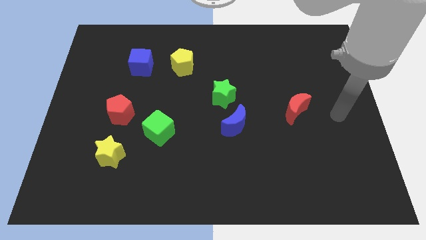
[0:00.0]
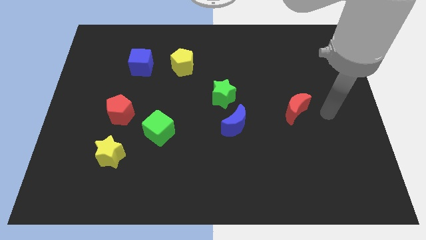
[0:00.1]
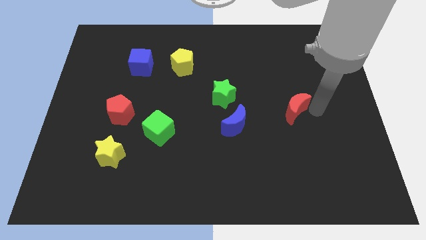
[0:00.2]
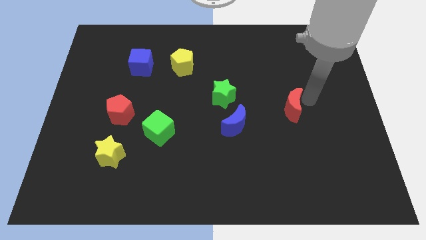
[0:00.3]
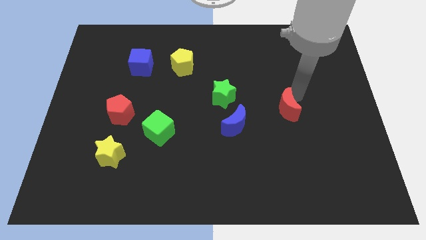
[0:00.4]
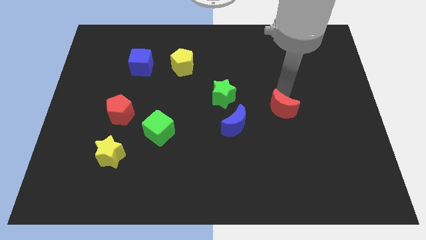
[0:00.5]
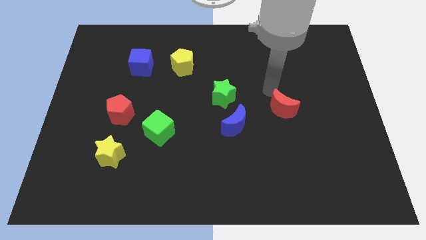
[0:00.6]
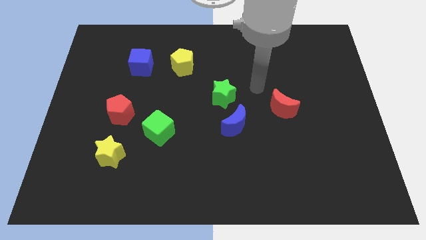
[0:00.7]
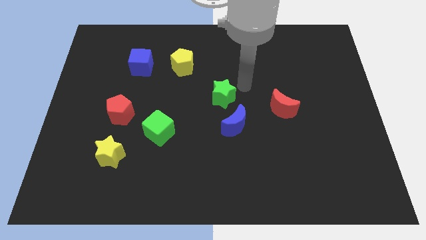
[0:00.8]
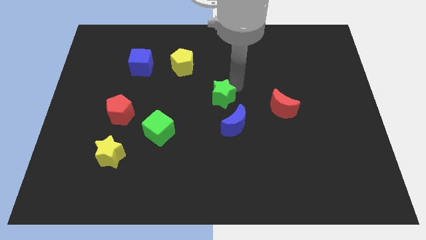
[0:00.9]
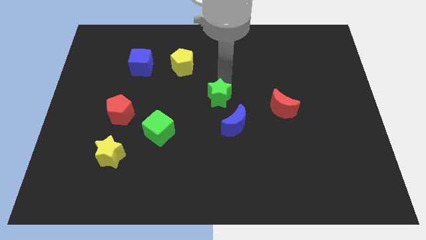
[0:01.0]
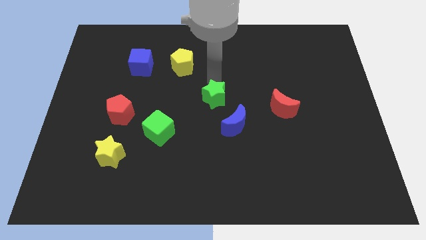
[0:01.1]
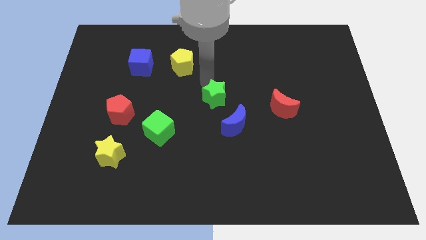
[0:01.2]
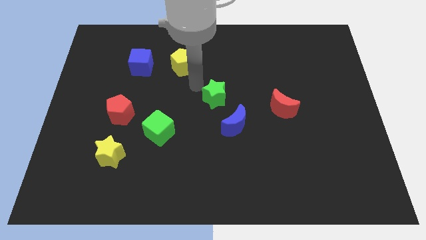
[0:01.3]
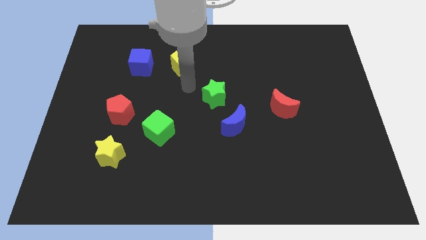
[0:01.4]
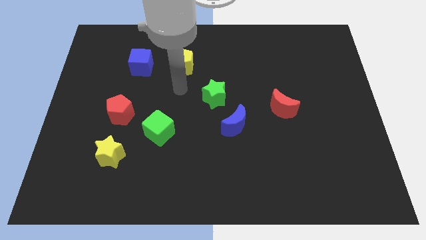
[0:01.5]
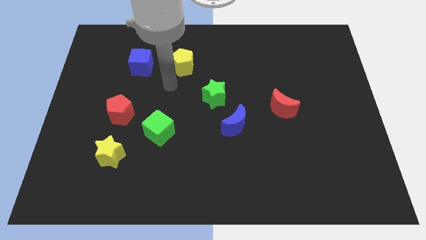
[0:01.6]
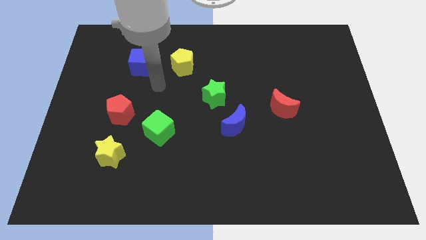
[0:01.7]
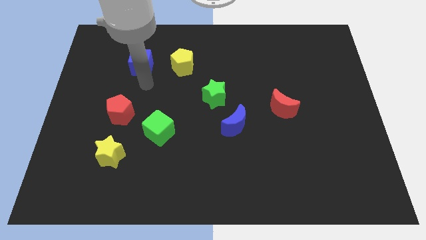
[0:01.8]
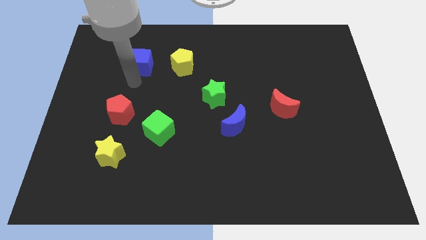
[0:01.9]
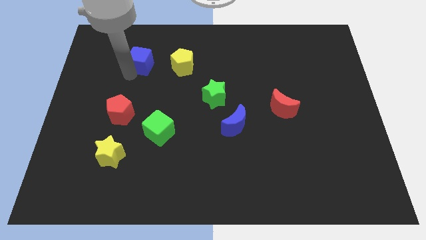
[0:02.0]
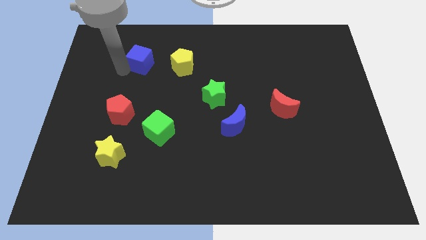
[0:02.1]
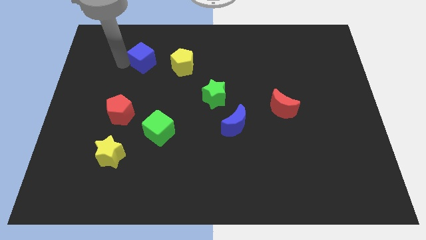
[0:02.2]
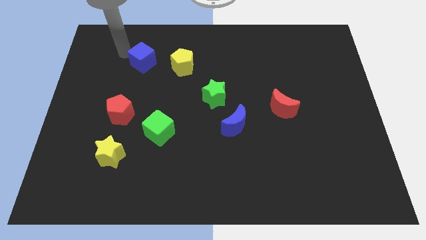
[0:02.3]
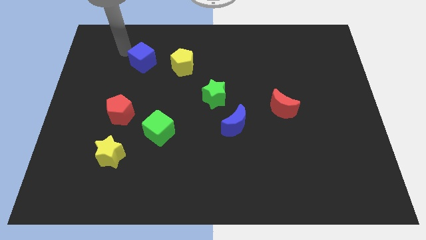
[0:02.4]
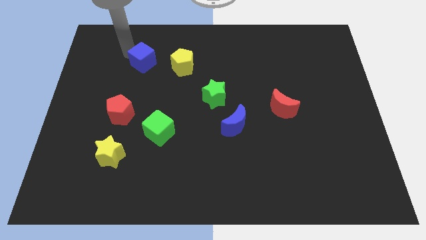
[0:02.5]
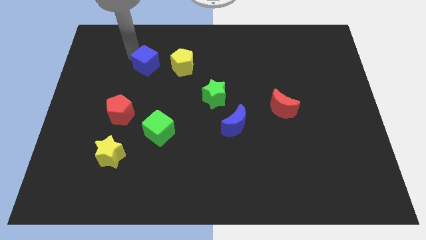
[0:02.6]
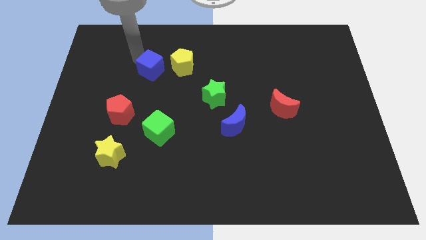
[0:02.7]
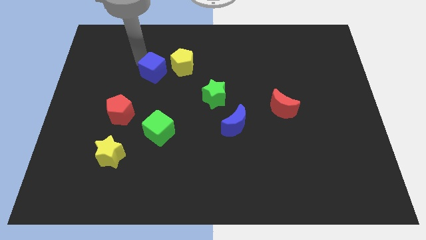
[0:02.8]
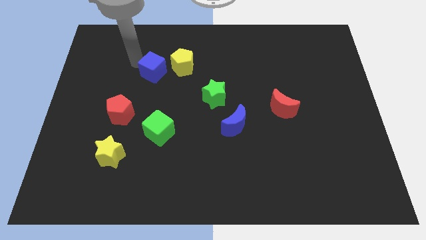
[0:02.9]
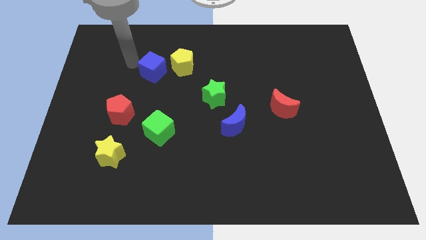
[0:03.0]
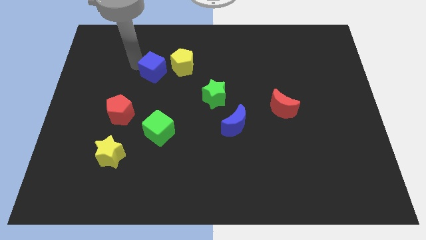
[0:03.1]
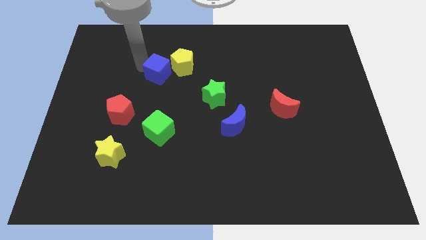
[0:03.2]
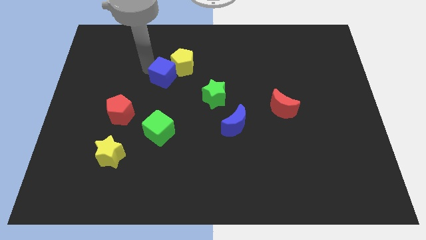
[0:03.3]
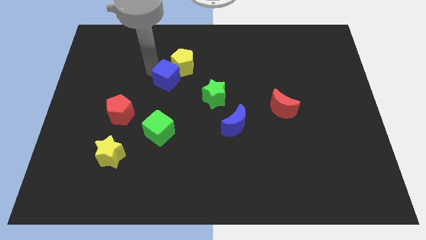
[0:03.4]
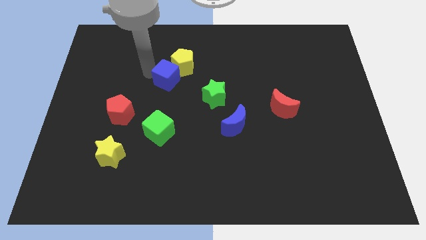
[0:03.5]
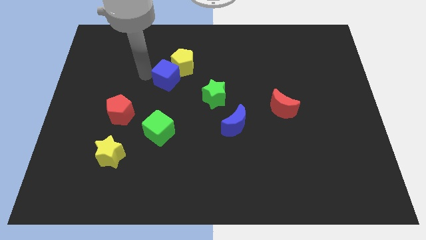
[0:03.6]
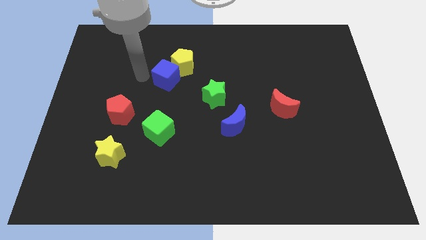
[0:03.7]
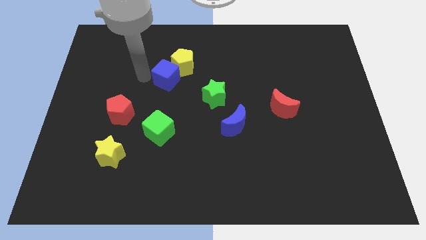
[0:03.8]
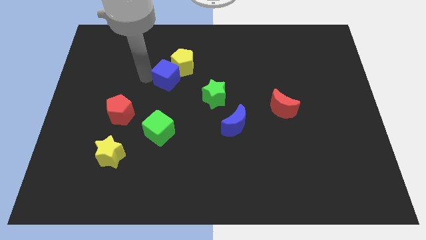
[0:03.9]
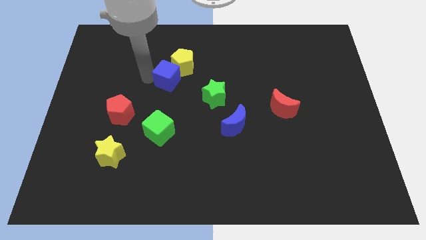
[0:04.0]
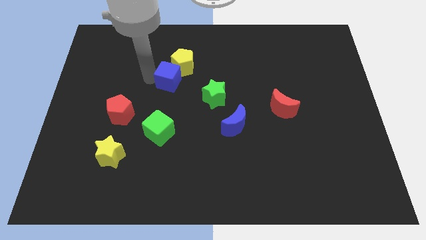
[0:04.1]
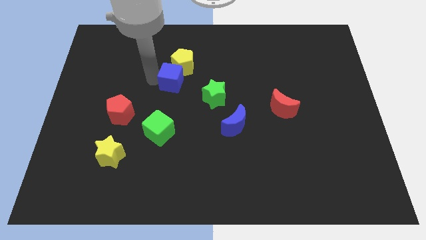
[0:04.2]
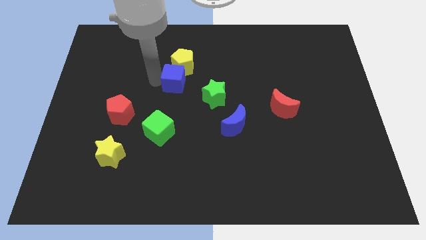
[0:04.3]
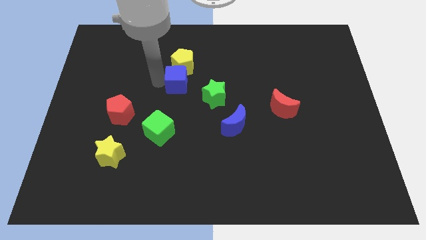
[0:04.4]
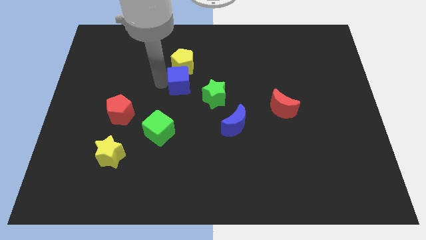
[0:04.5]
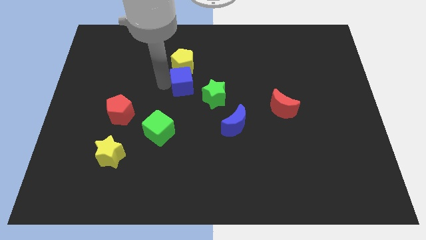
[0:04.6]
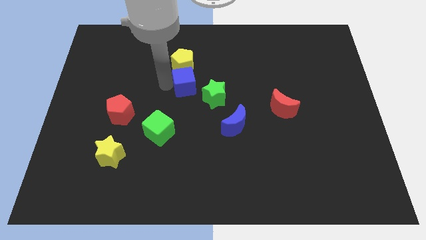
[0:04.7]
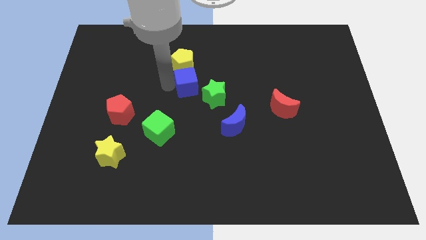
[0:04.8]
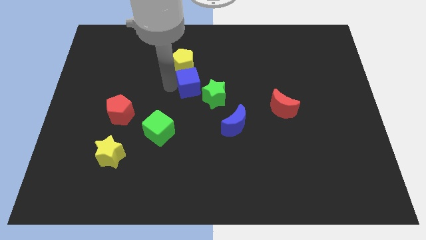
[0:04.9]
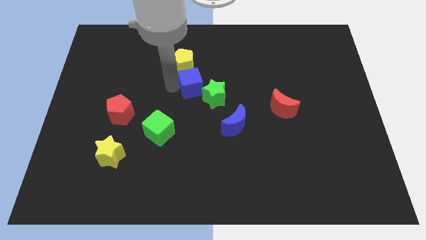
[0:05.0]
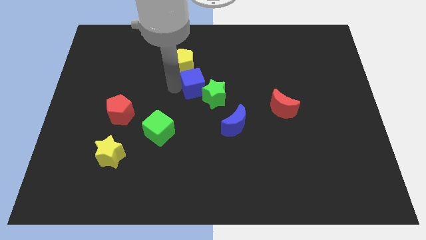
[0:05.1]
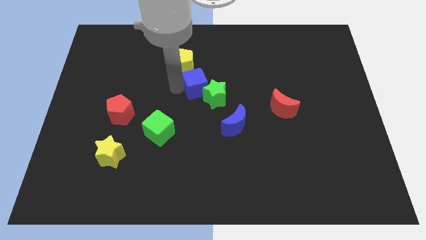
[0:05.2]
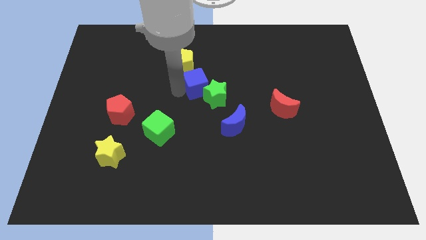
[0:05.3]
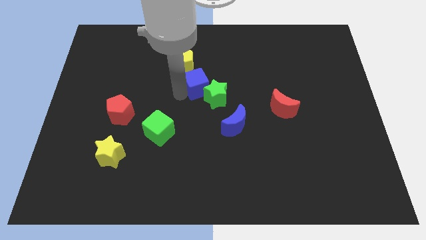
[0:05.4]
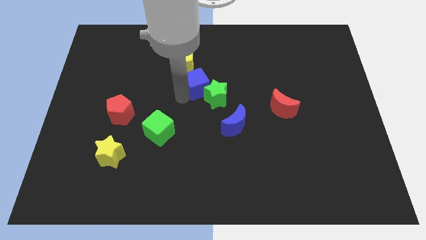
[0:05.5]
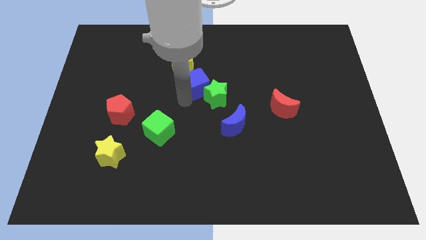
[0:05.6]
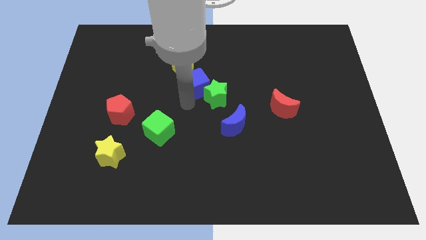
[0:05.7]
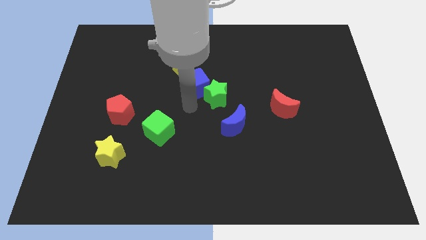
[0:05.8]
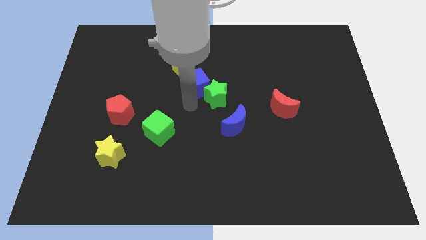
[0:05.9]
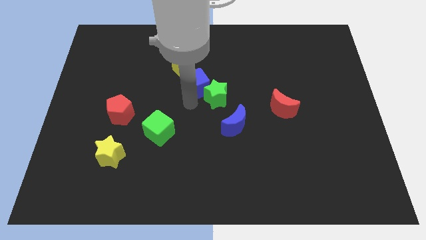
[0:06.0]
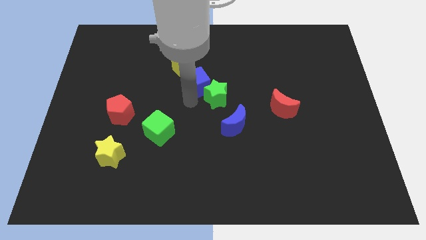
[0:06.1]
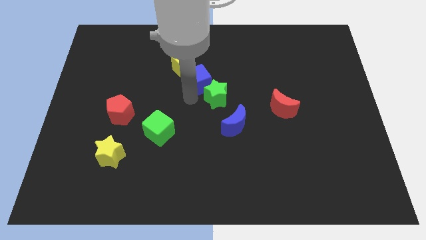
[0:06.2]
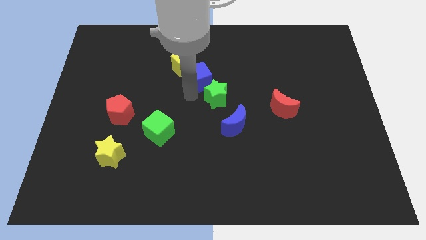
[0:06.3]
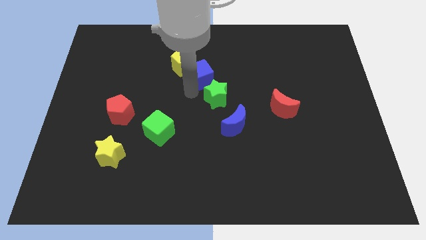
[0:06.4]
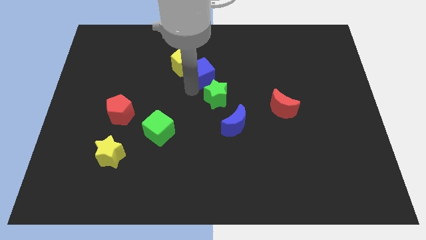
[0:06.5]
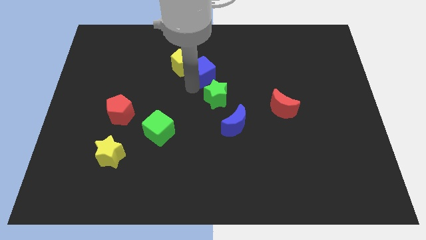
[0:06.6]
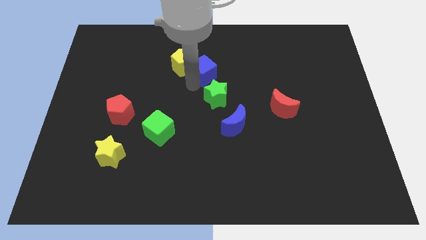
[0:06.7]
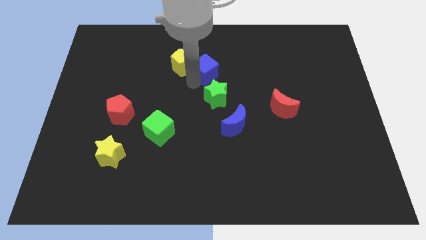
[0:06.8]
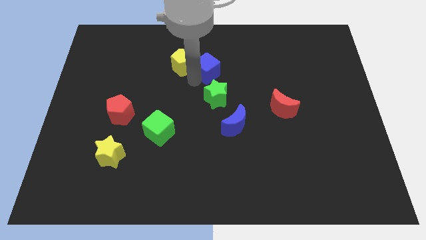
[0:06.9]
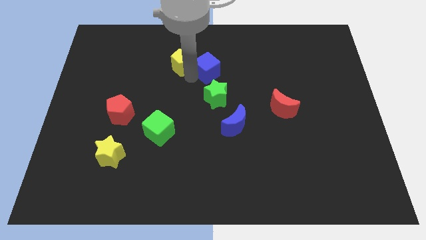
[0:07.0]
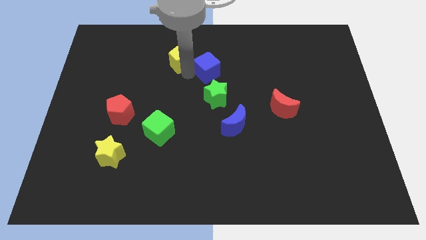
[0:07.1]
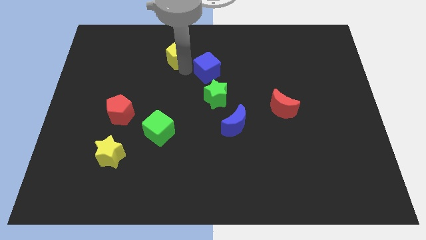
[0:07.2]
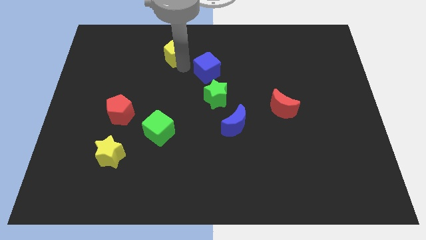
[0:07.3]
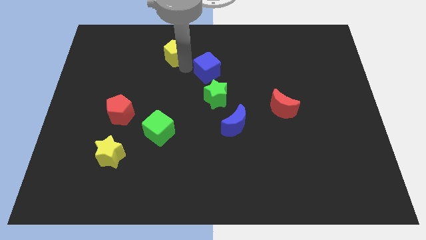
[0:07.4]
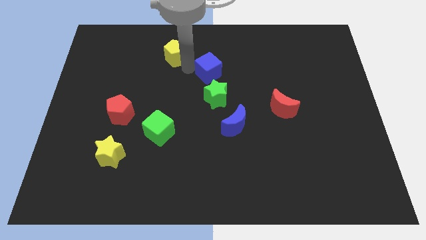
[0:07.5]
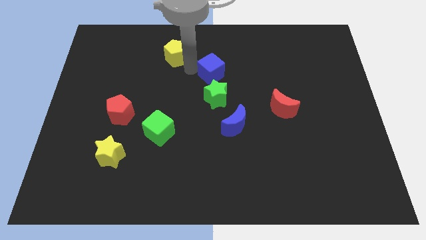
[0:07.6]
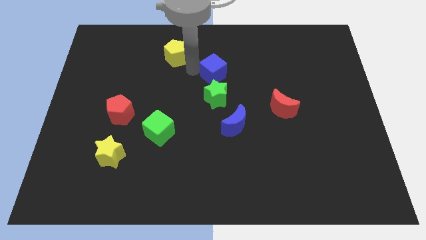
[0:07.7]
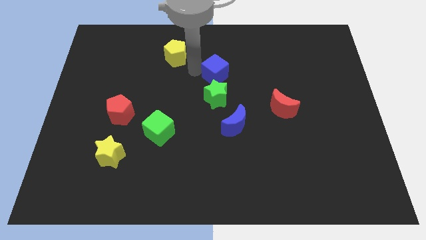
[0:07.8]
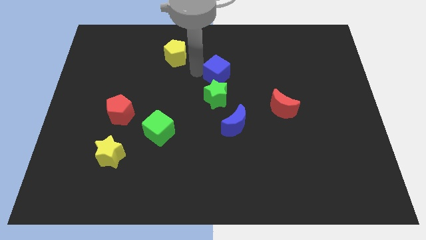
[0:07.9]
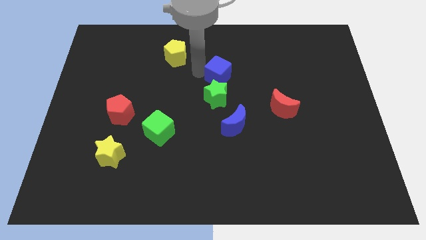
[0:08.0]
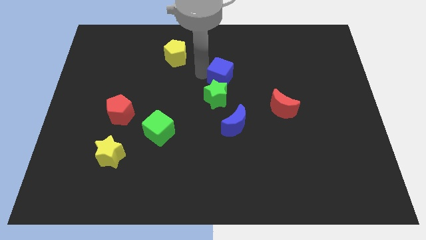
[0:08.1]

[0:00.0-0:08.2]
move the blue cube right
